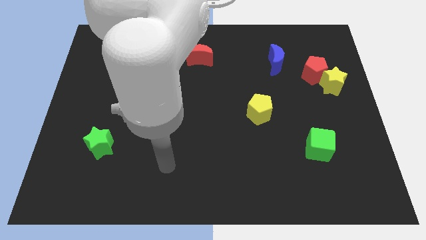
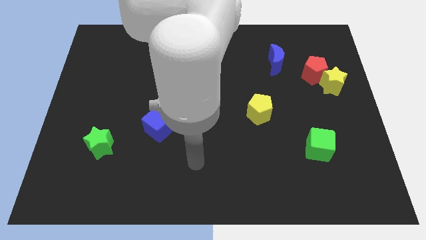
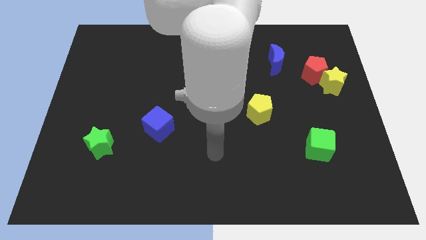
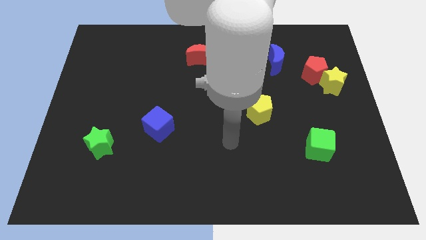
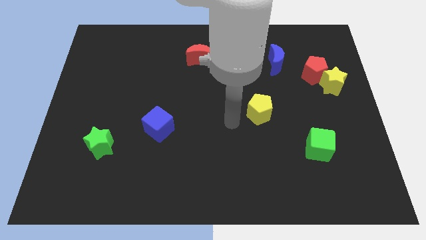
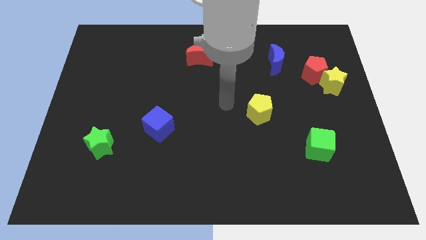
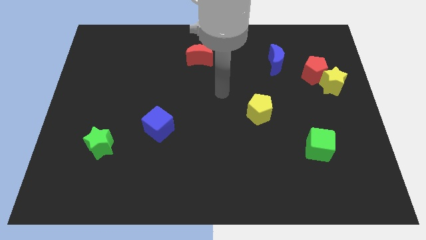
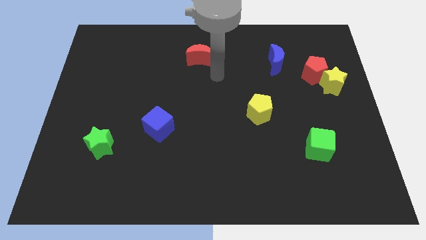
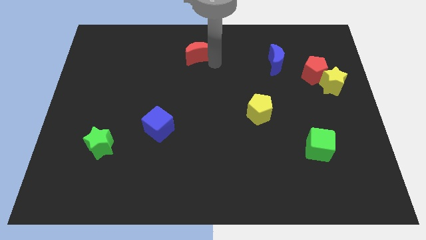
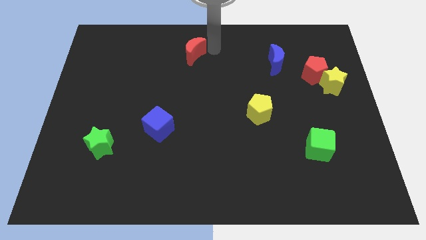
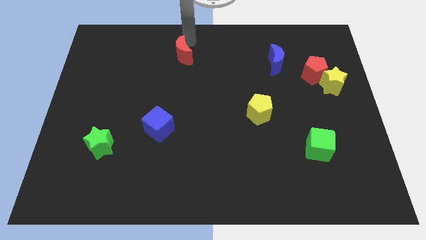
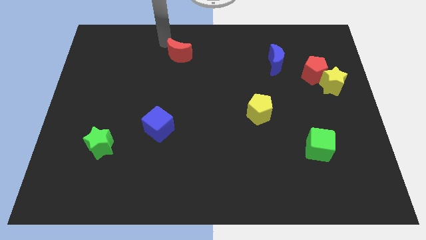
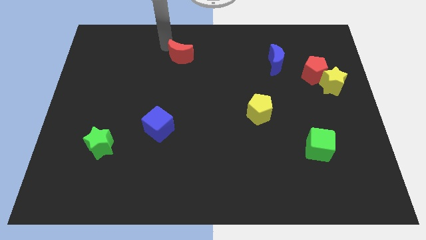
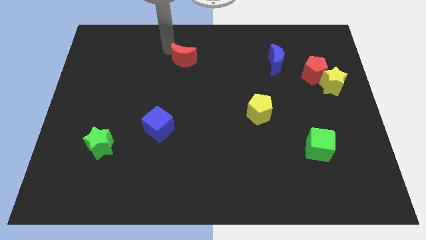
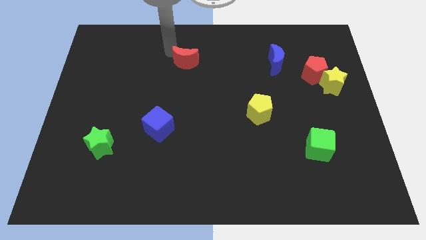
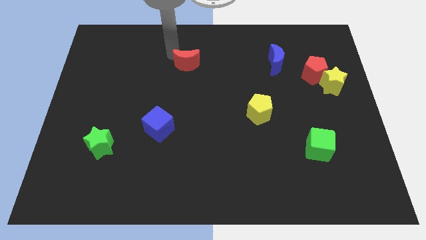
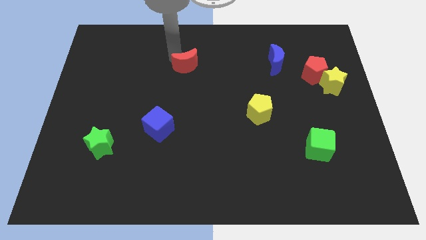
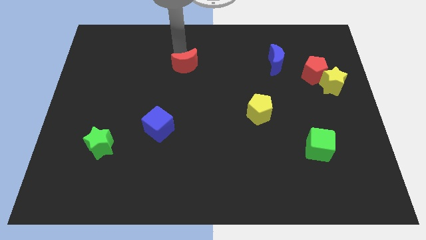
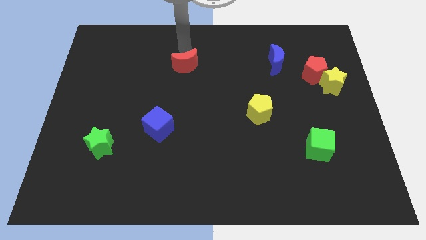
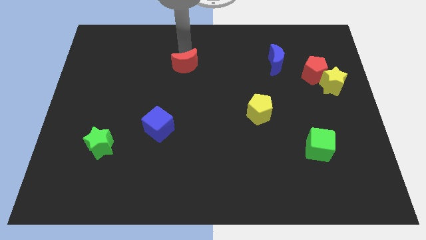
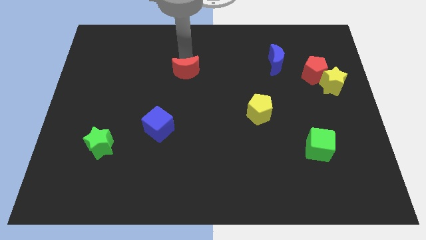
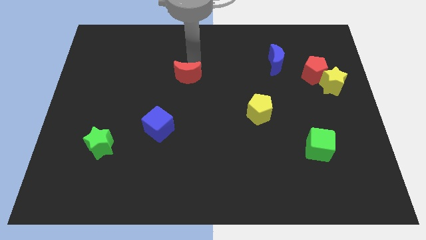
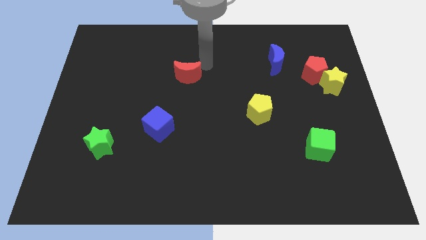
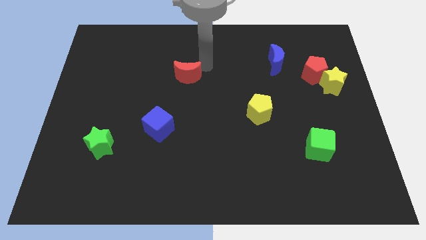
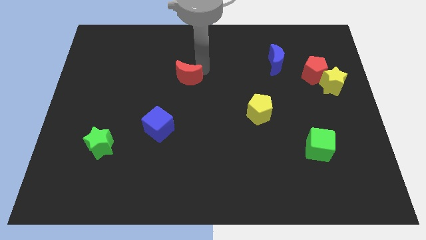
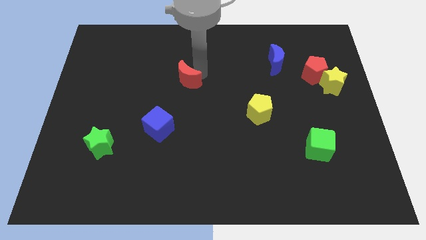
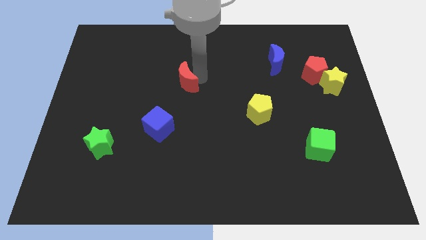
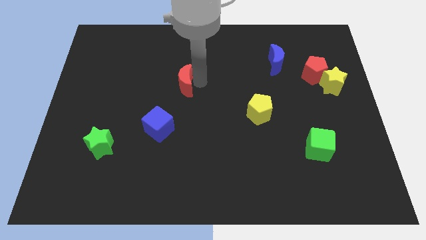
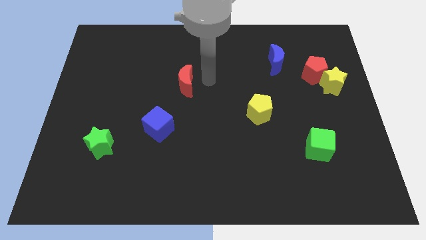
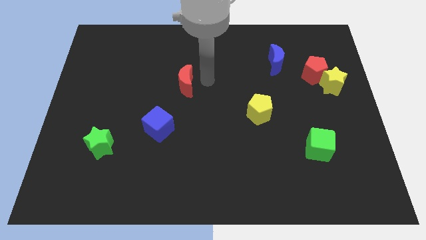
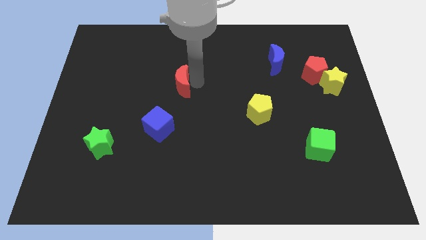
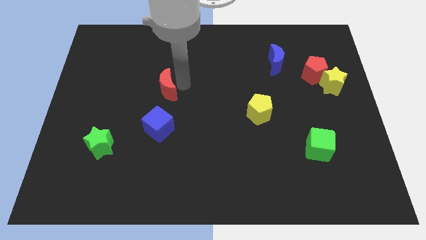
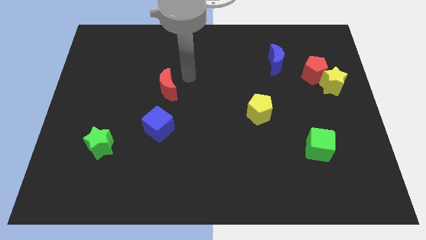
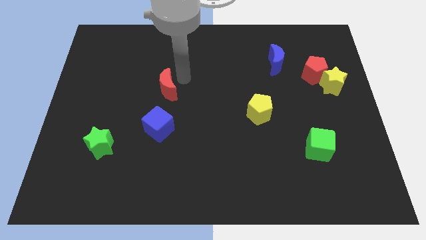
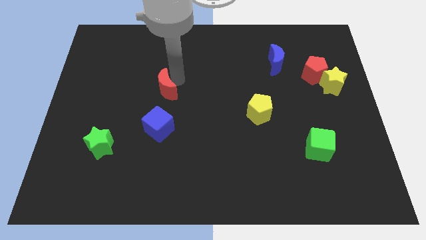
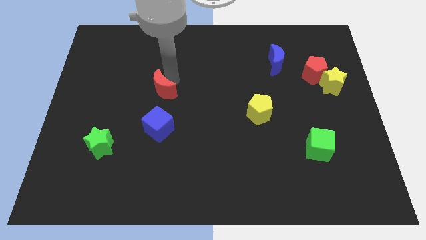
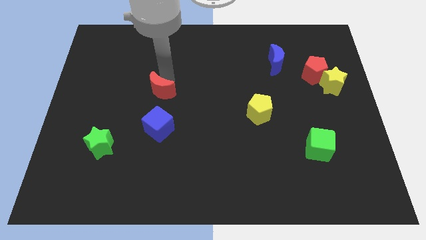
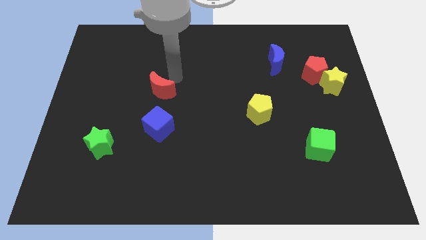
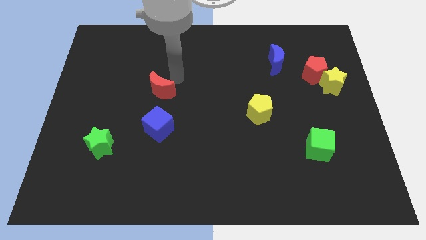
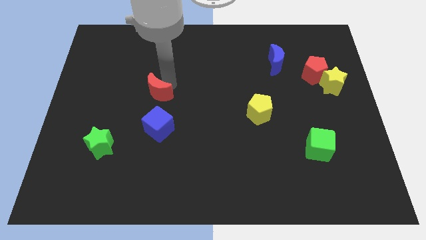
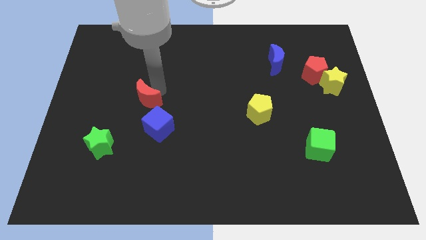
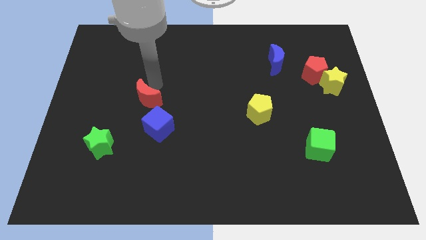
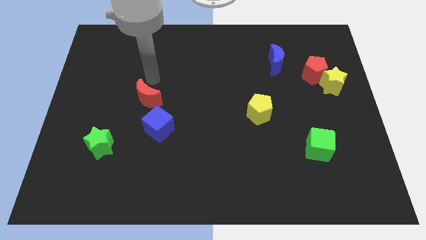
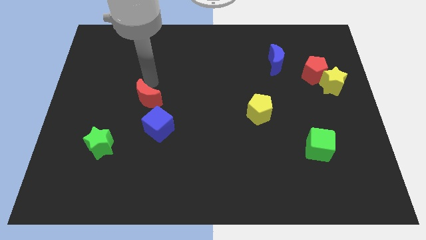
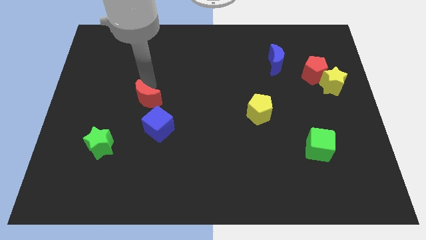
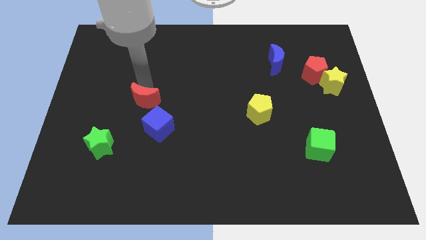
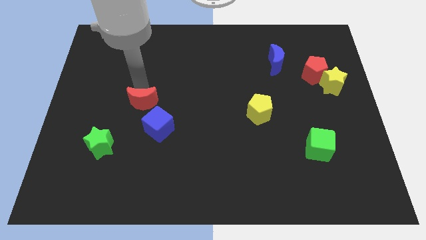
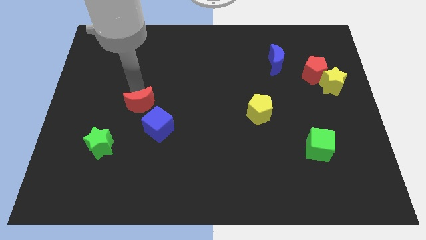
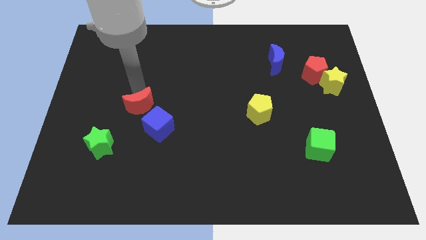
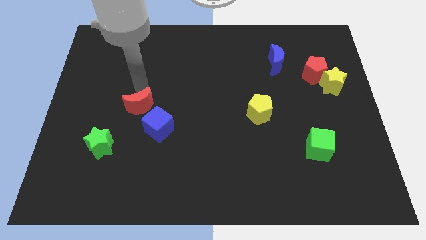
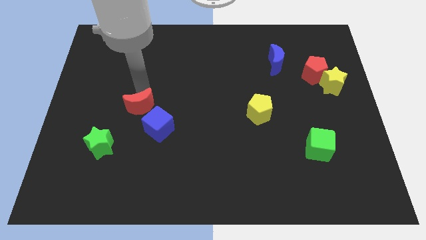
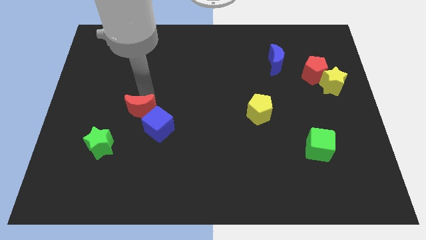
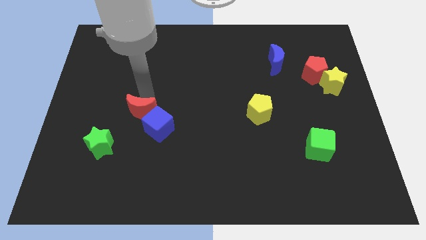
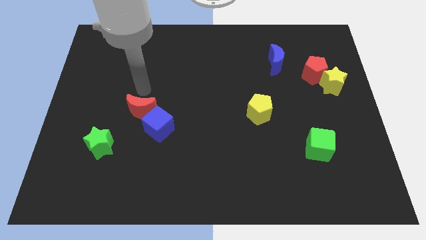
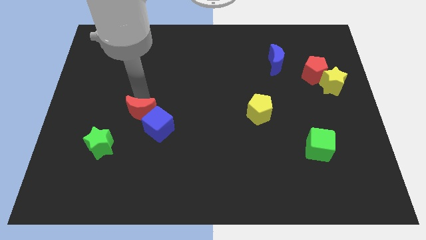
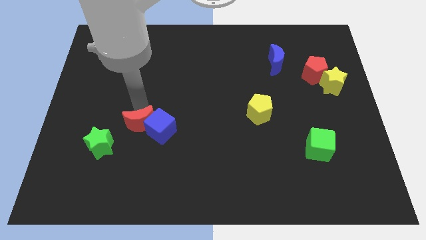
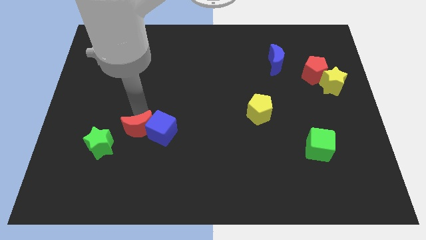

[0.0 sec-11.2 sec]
slide the red moon to the right side of the green star

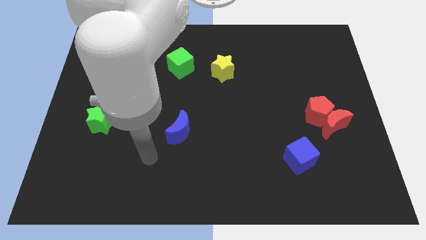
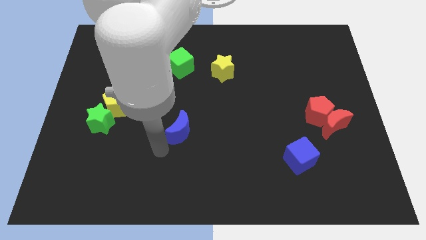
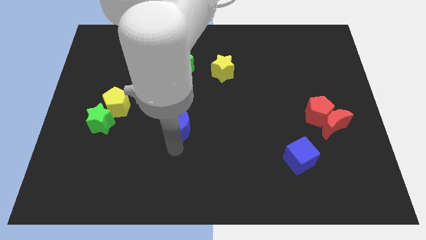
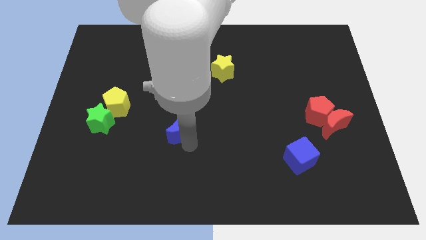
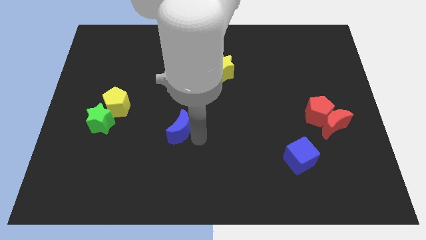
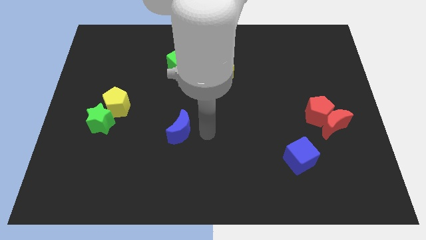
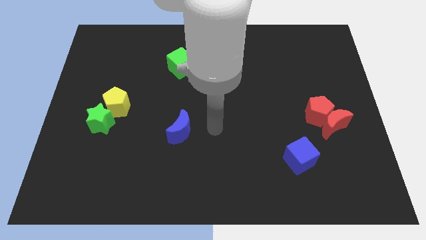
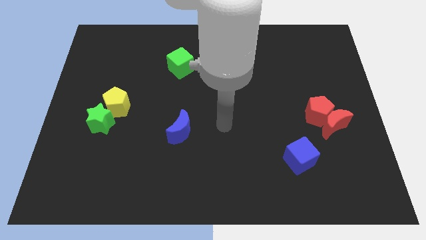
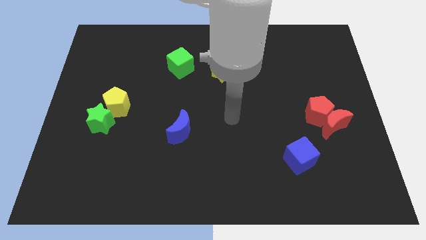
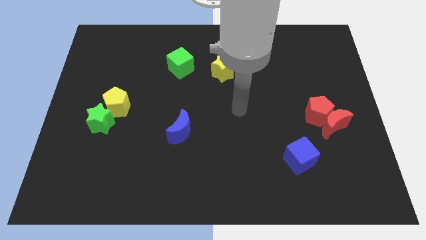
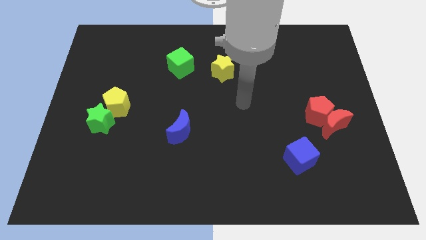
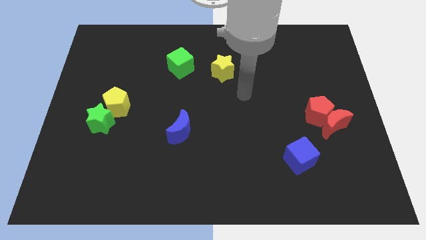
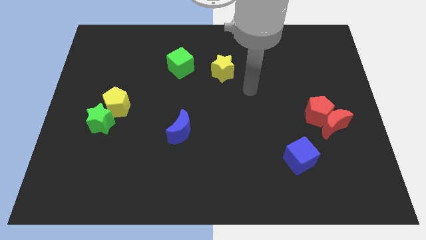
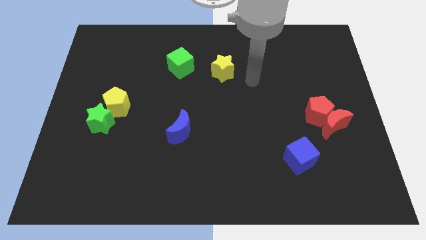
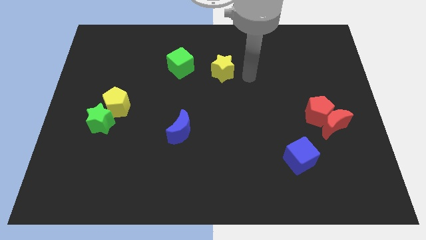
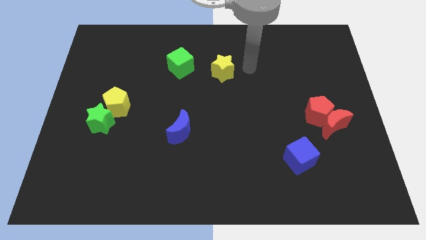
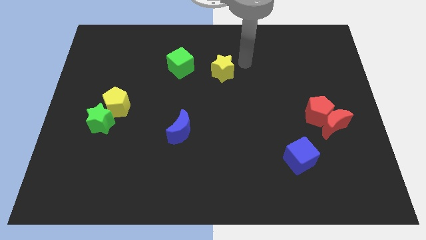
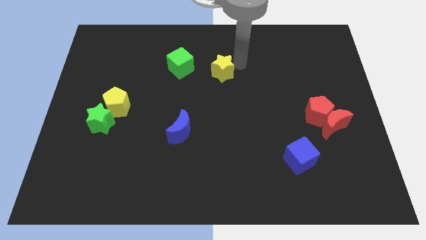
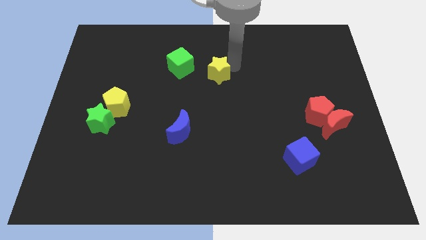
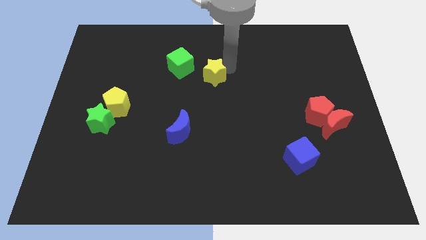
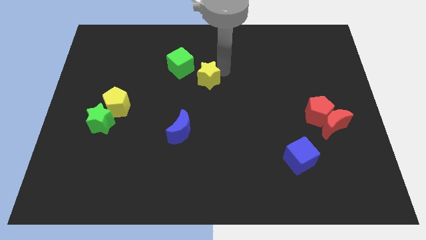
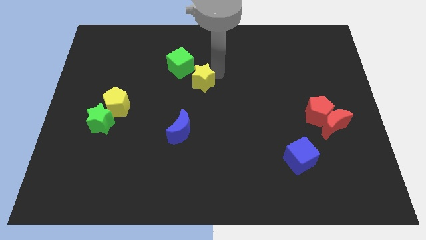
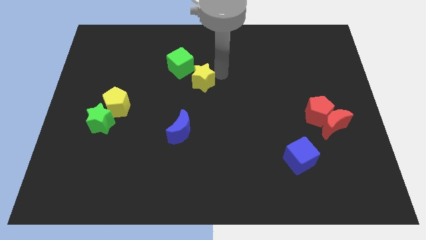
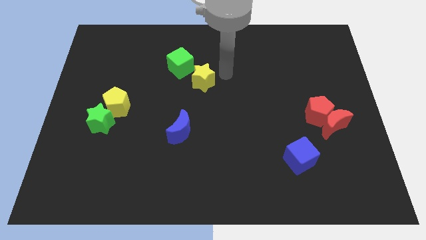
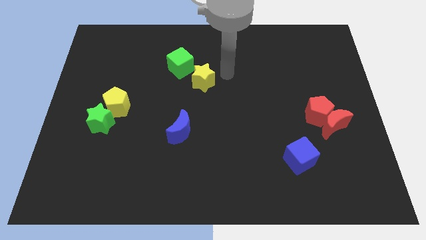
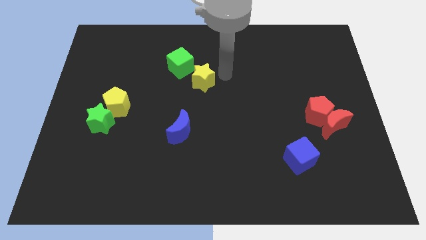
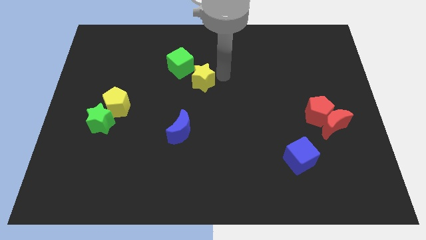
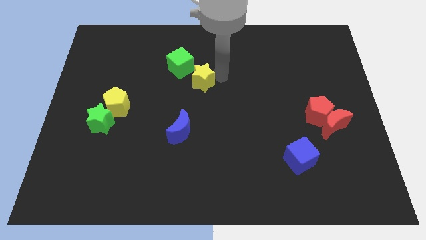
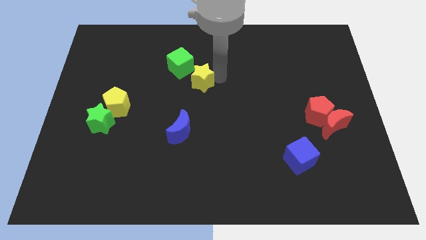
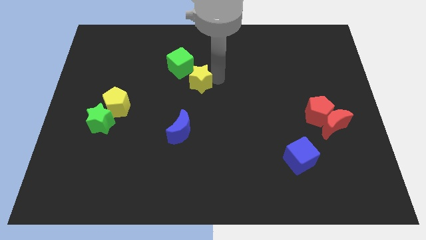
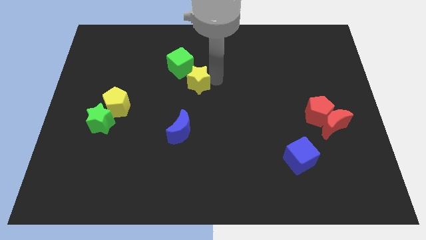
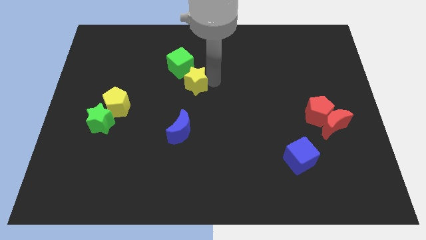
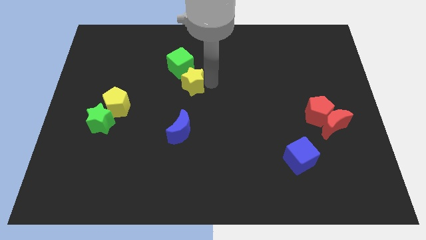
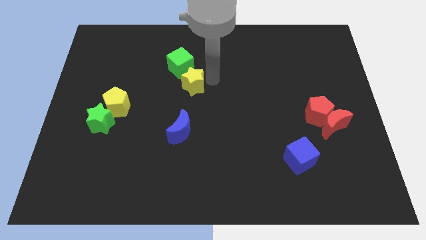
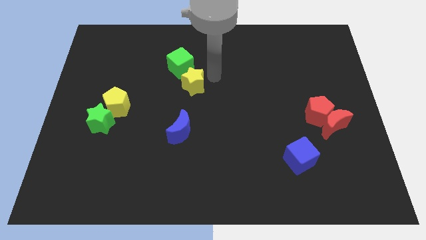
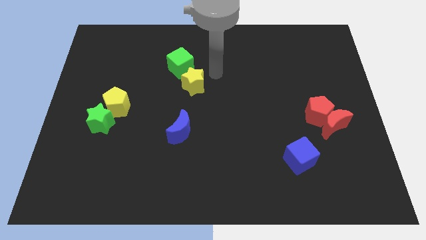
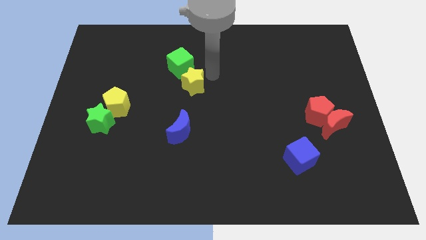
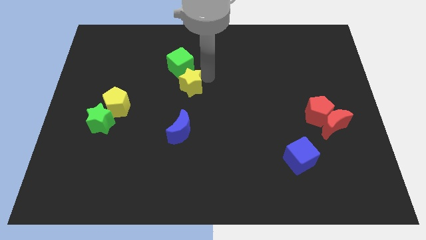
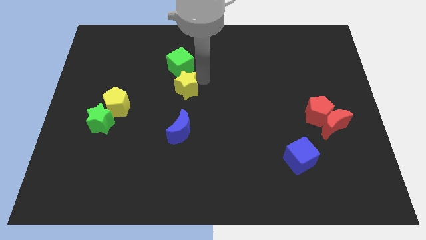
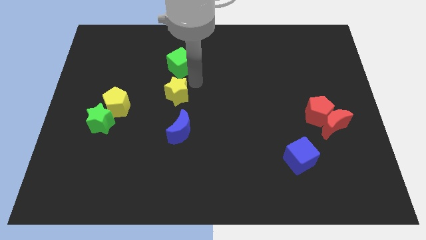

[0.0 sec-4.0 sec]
slide the yellow star just right of the yellow pentagon
